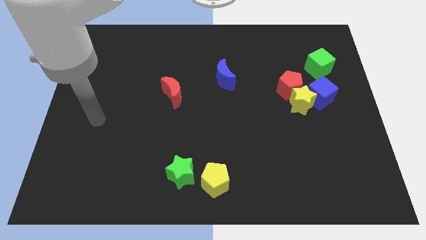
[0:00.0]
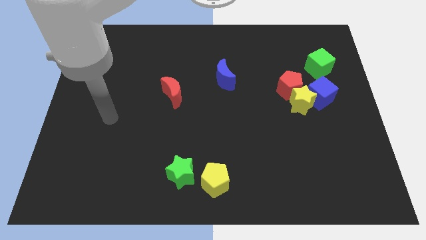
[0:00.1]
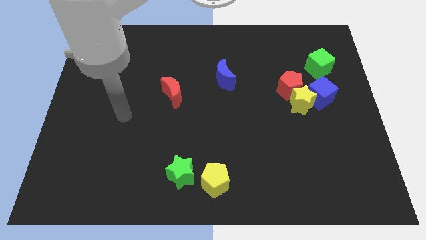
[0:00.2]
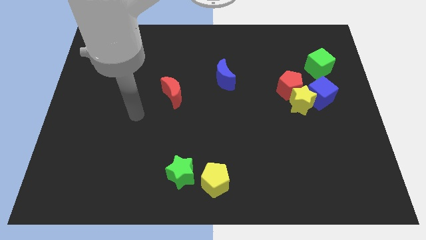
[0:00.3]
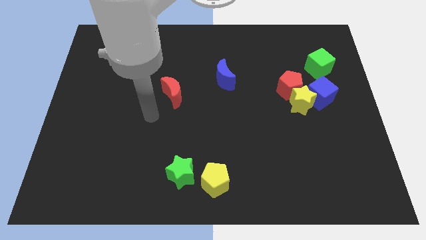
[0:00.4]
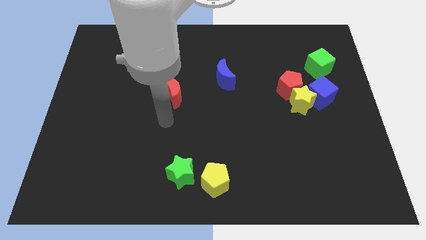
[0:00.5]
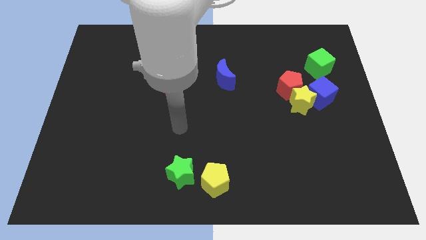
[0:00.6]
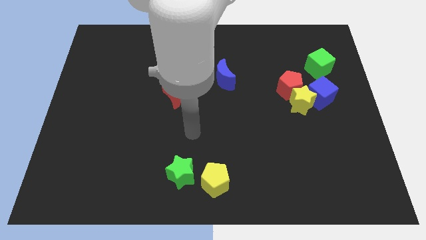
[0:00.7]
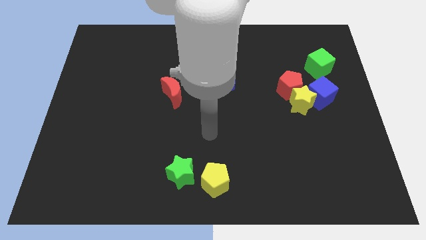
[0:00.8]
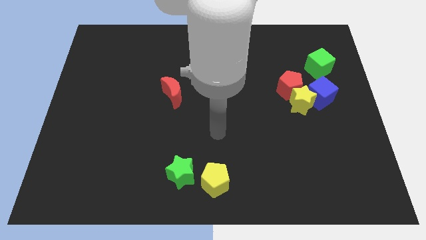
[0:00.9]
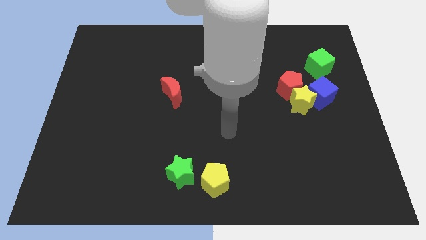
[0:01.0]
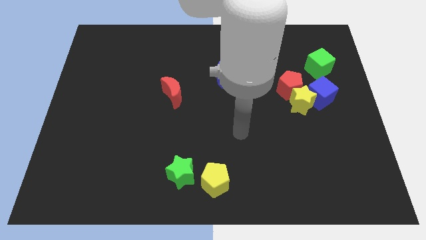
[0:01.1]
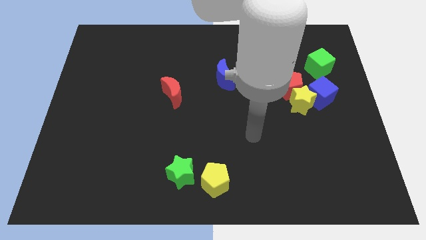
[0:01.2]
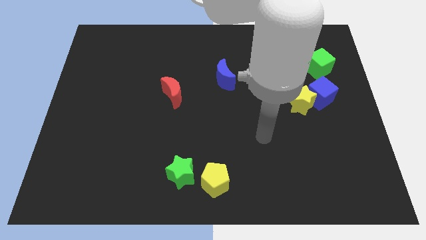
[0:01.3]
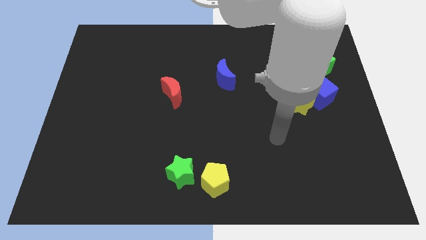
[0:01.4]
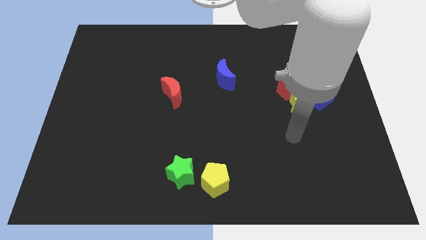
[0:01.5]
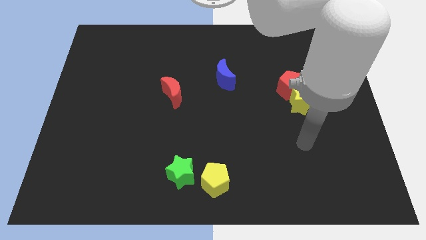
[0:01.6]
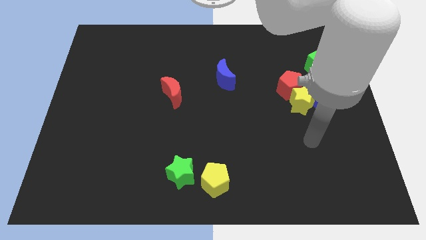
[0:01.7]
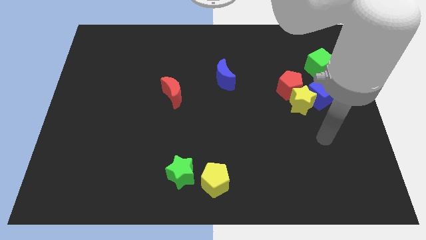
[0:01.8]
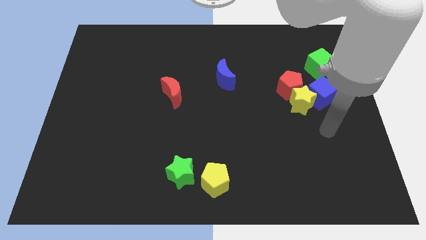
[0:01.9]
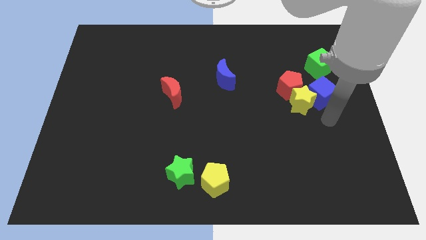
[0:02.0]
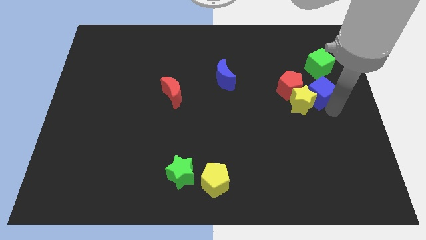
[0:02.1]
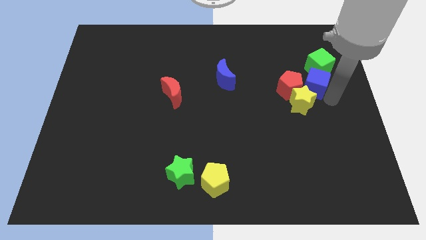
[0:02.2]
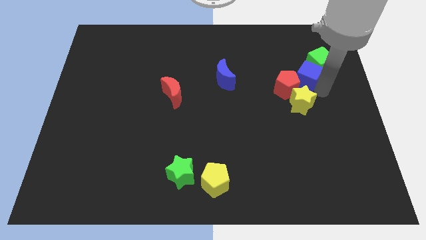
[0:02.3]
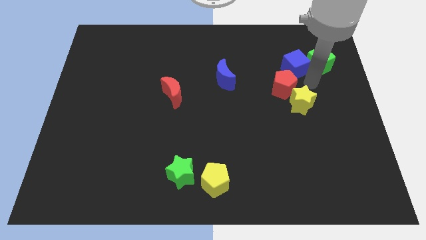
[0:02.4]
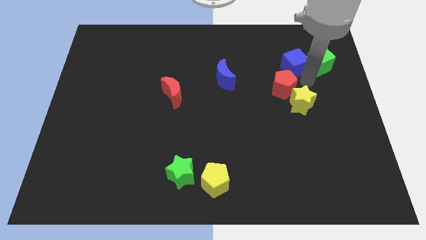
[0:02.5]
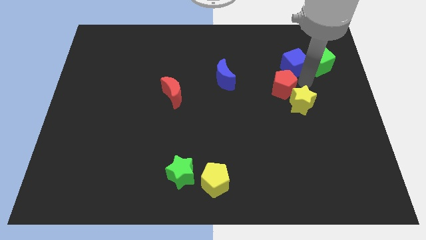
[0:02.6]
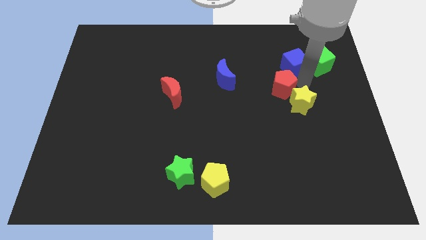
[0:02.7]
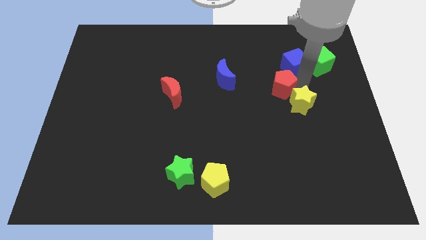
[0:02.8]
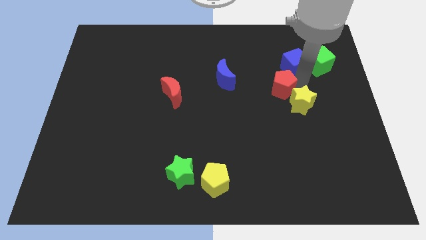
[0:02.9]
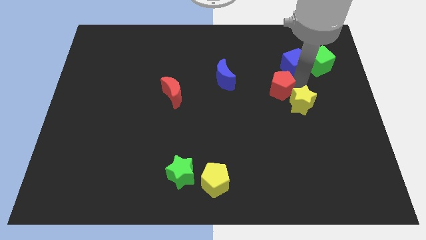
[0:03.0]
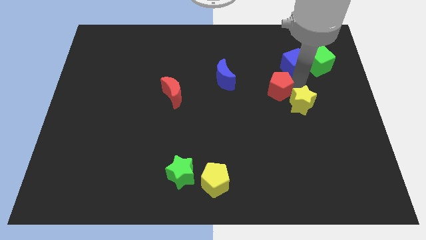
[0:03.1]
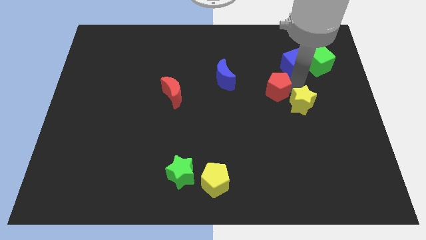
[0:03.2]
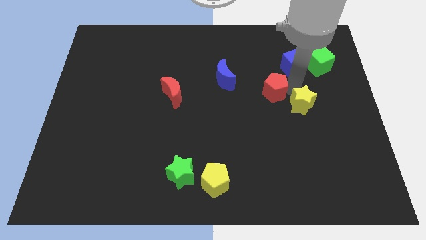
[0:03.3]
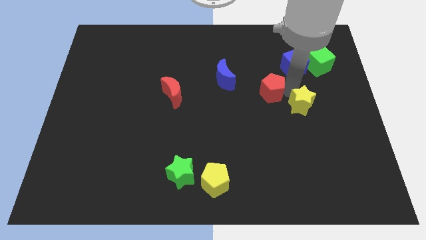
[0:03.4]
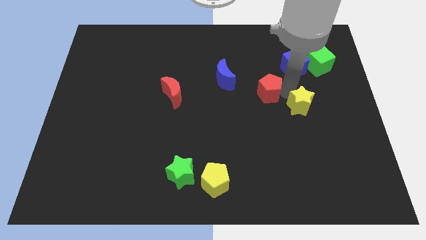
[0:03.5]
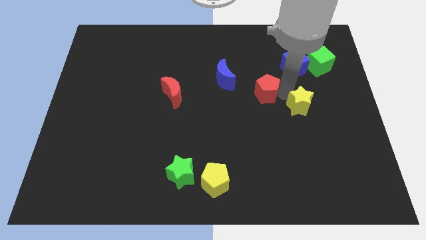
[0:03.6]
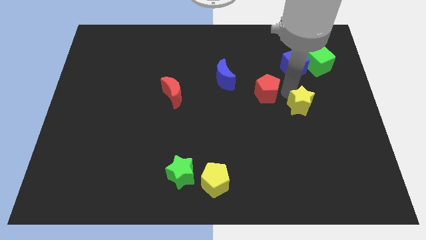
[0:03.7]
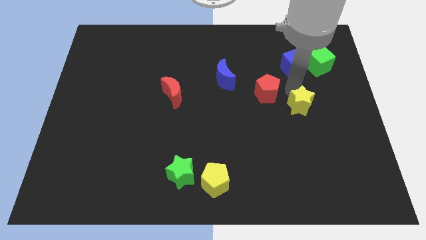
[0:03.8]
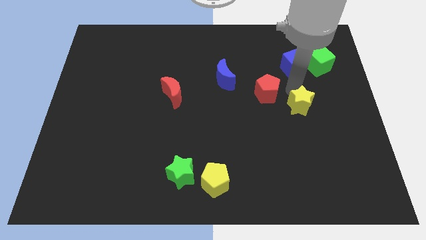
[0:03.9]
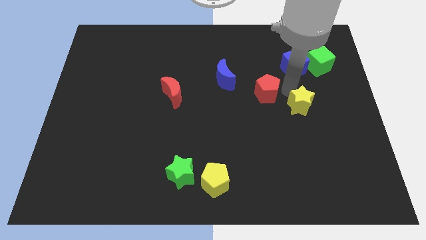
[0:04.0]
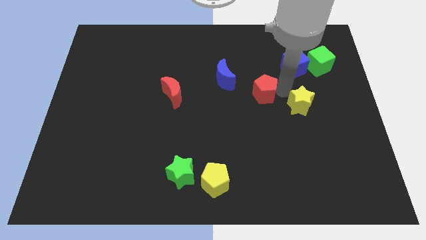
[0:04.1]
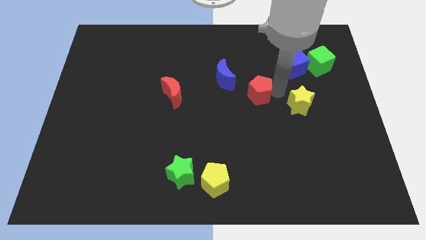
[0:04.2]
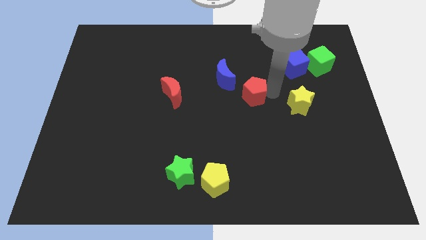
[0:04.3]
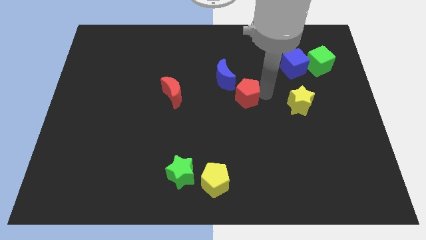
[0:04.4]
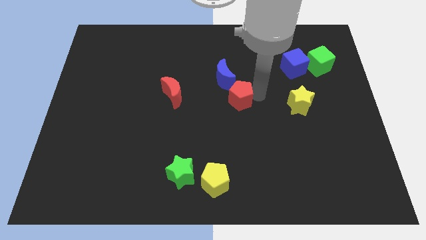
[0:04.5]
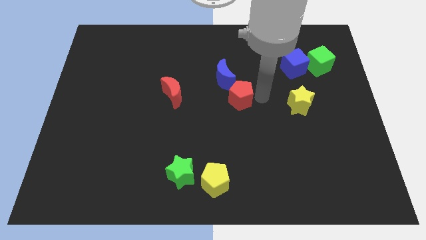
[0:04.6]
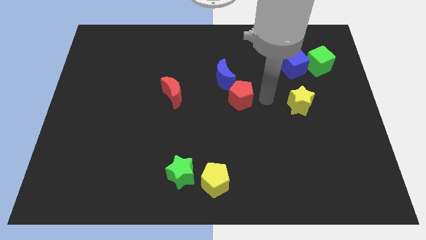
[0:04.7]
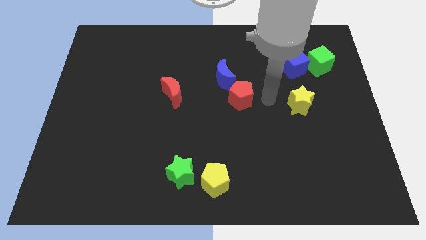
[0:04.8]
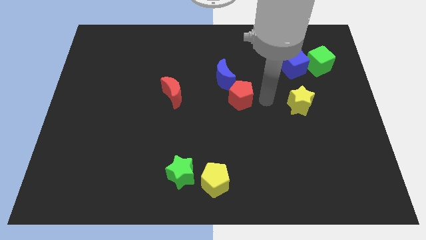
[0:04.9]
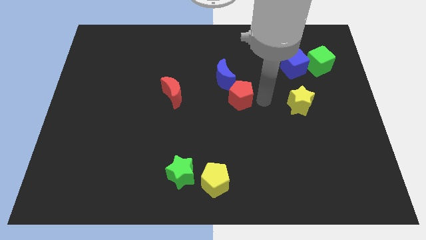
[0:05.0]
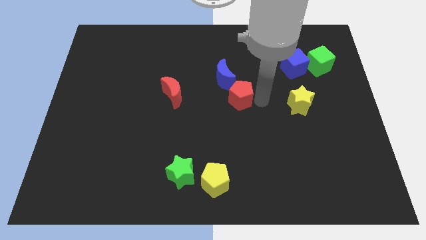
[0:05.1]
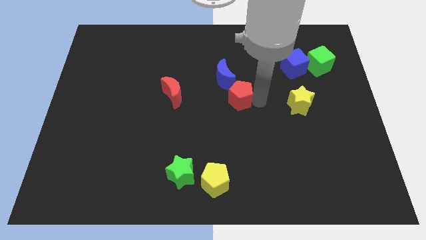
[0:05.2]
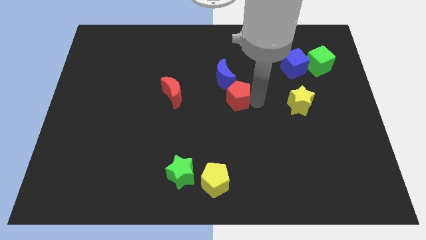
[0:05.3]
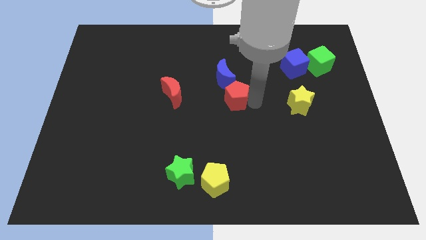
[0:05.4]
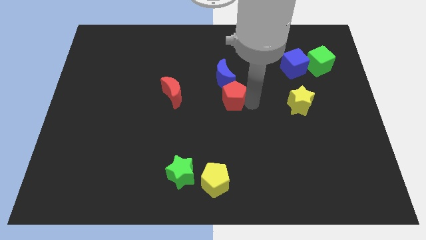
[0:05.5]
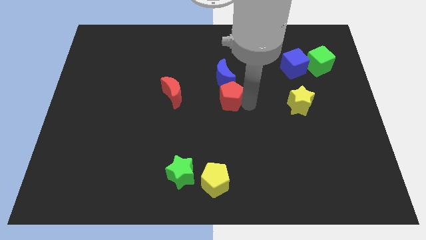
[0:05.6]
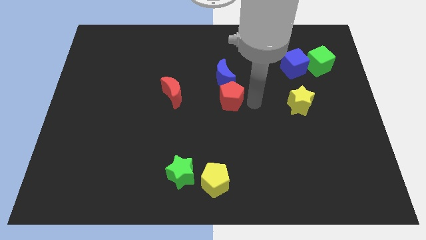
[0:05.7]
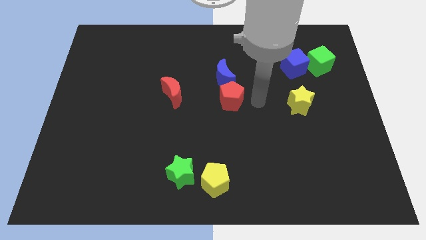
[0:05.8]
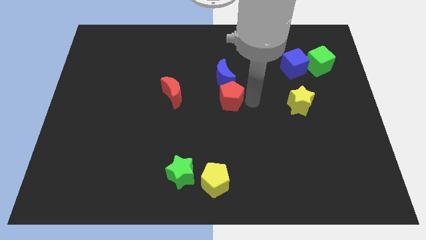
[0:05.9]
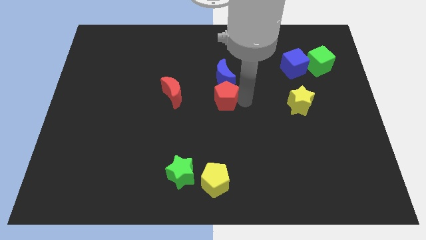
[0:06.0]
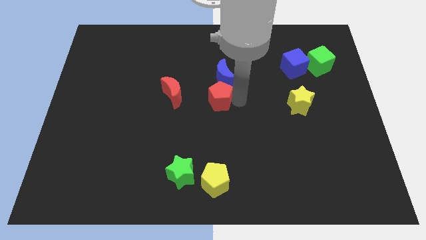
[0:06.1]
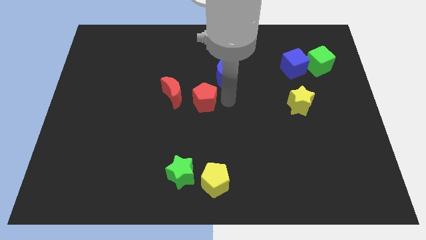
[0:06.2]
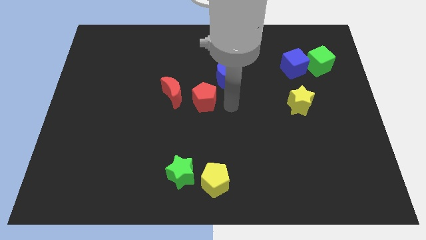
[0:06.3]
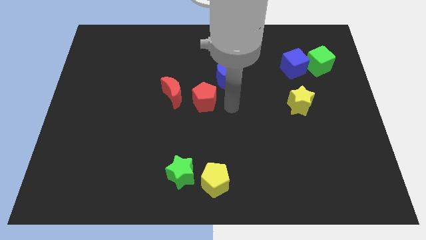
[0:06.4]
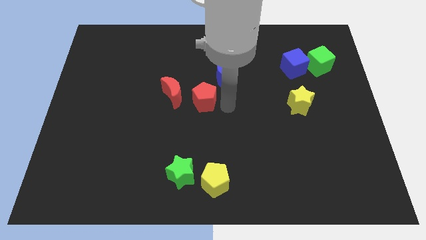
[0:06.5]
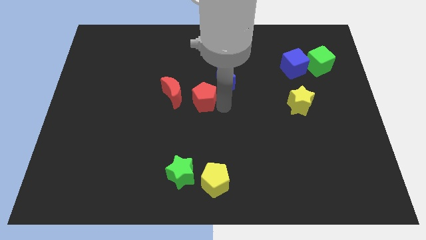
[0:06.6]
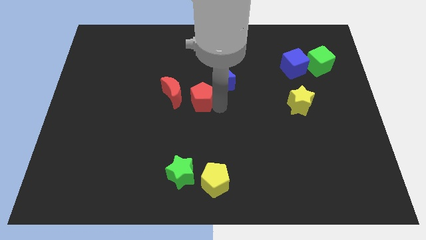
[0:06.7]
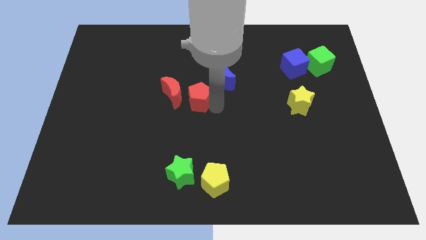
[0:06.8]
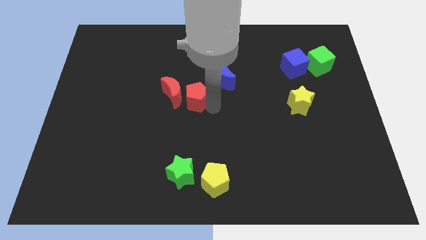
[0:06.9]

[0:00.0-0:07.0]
slide the red pentagon to the red moon
